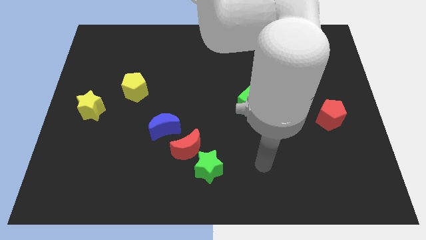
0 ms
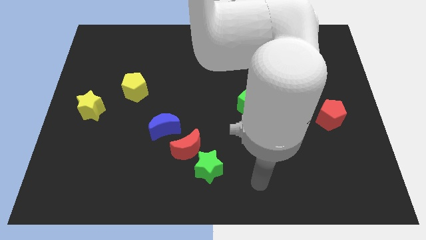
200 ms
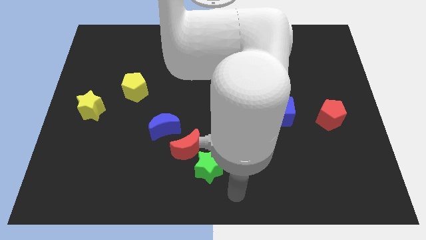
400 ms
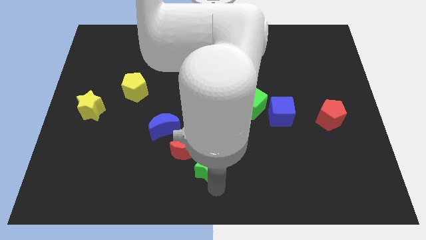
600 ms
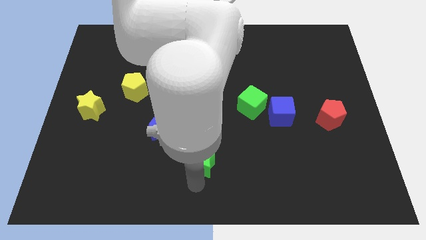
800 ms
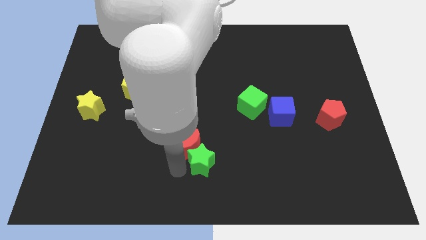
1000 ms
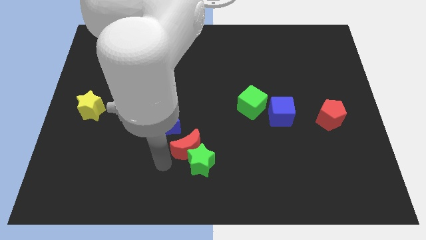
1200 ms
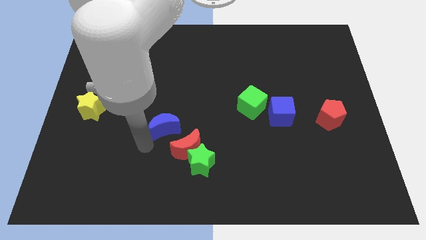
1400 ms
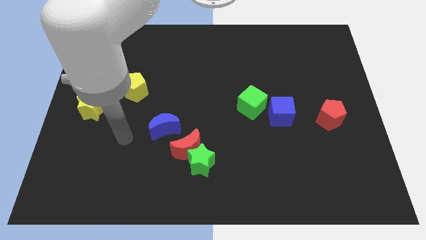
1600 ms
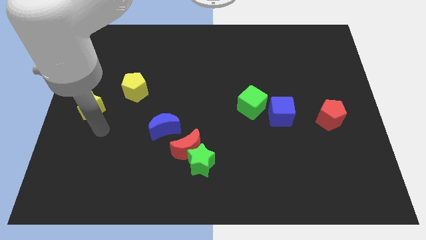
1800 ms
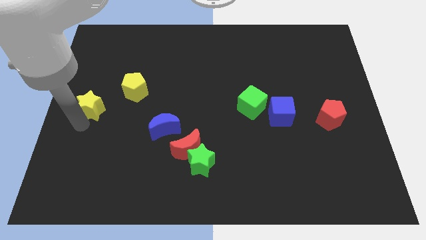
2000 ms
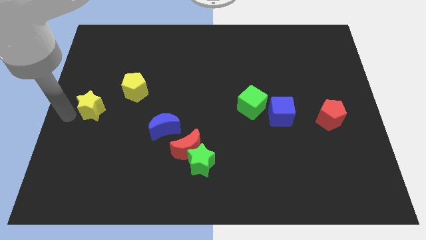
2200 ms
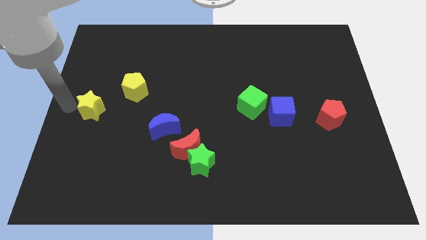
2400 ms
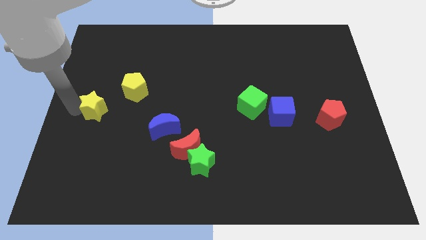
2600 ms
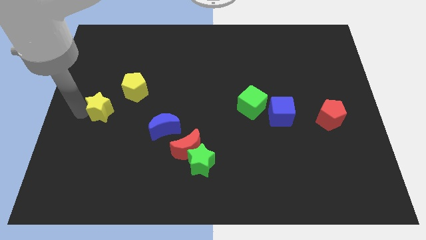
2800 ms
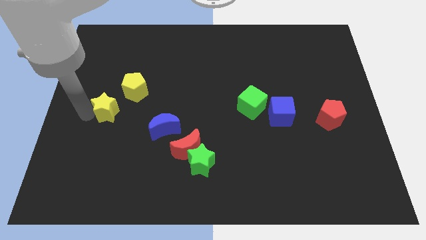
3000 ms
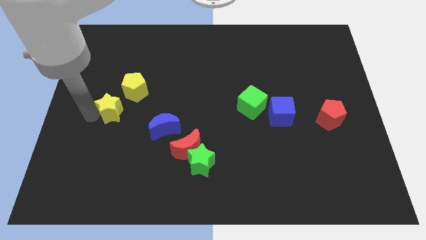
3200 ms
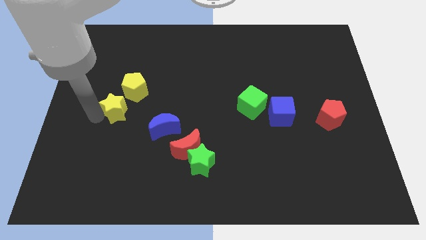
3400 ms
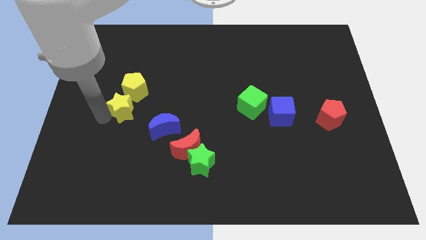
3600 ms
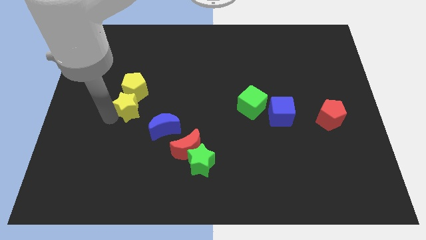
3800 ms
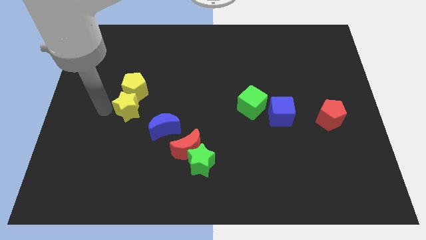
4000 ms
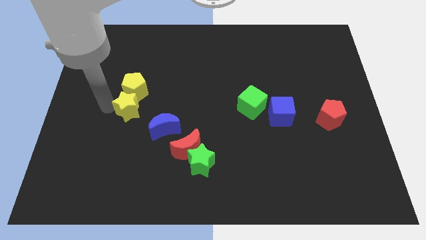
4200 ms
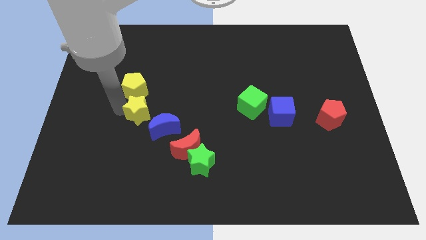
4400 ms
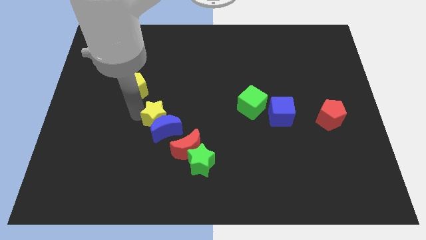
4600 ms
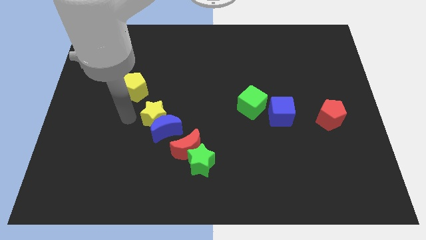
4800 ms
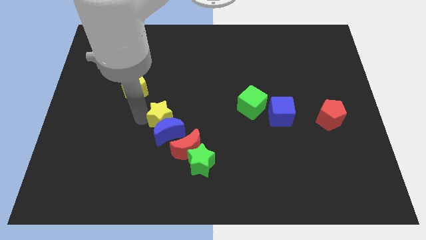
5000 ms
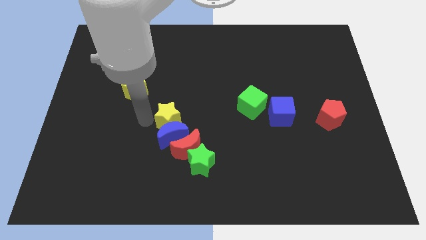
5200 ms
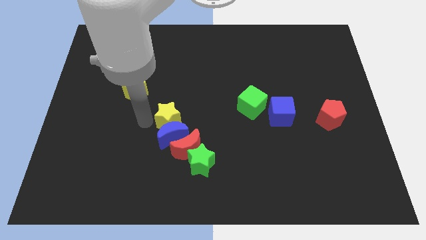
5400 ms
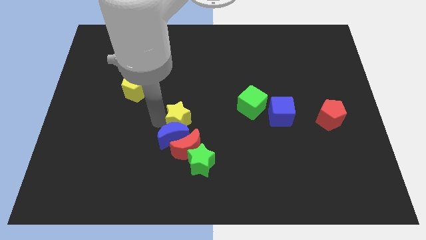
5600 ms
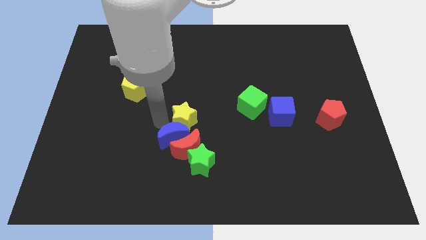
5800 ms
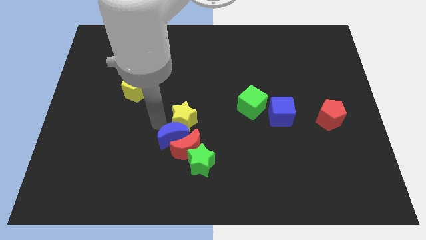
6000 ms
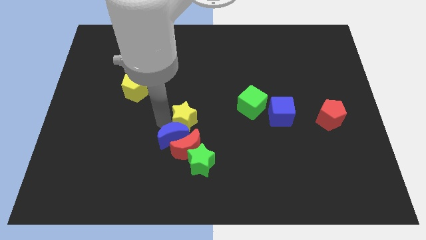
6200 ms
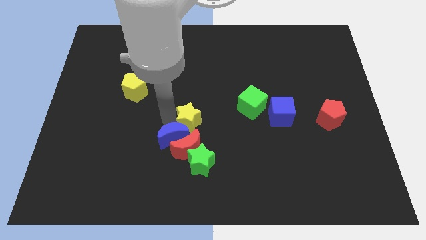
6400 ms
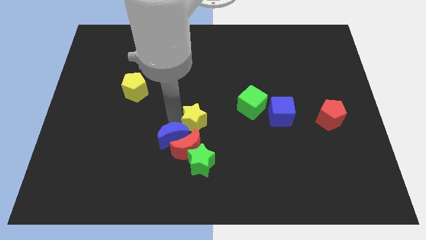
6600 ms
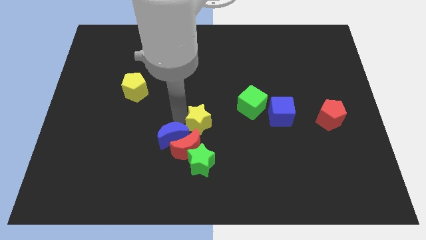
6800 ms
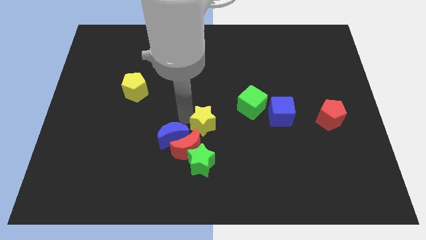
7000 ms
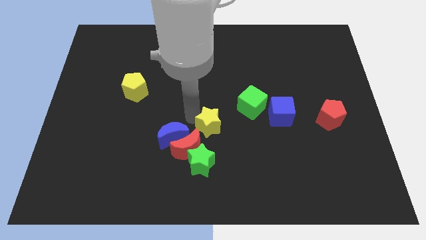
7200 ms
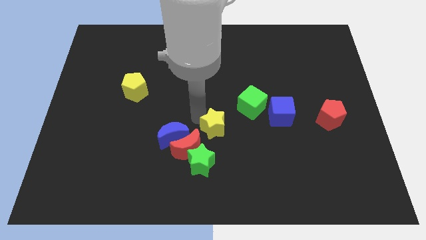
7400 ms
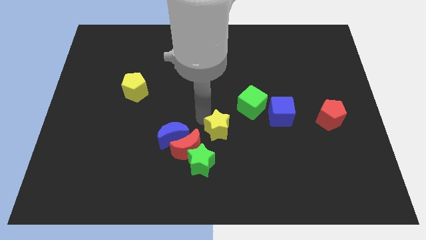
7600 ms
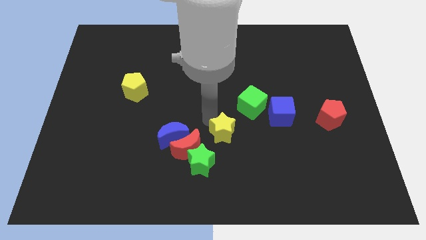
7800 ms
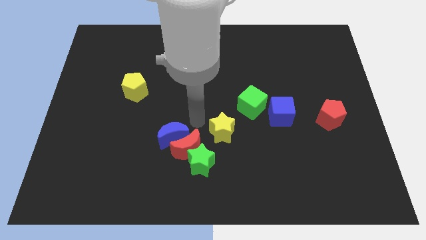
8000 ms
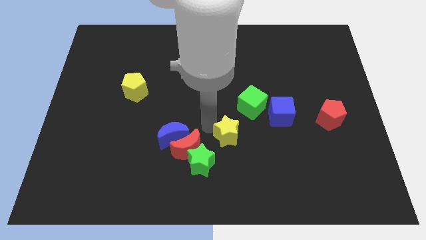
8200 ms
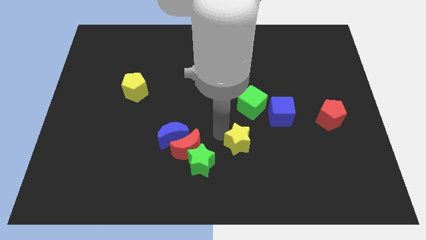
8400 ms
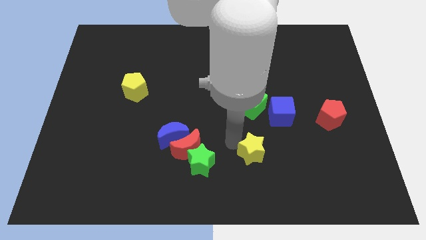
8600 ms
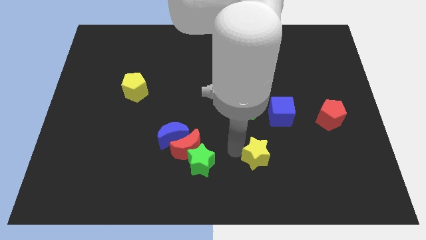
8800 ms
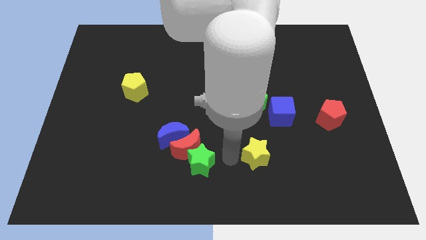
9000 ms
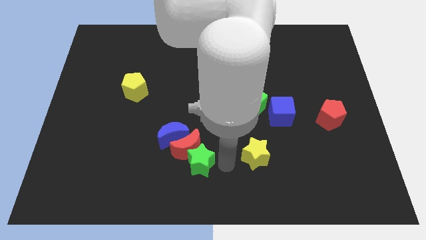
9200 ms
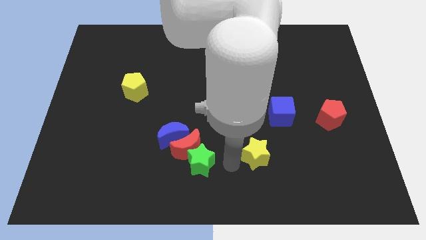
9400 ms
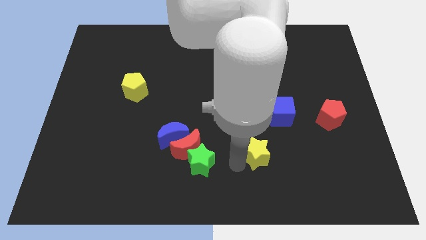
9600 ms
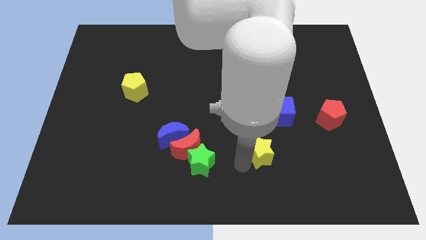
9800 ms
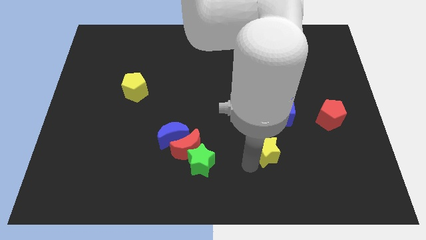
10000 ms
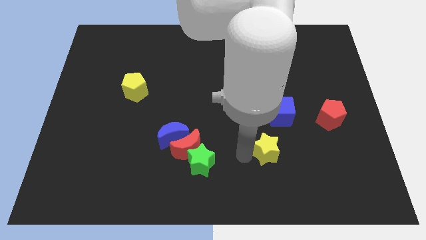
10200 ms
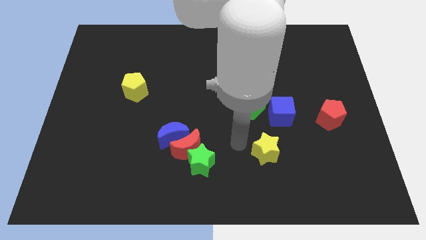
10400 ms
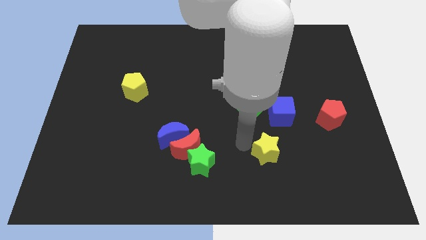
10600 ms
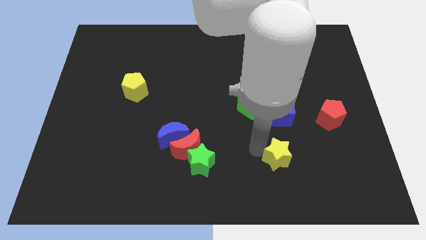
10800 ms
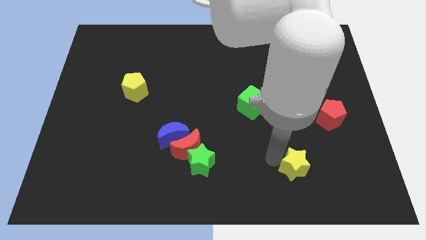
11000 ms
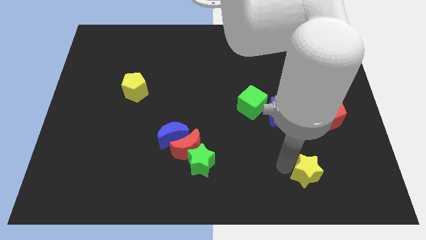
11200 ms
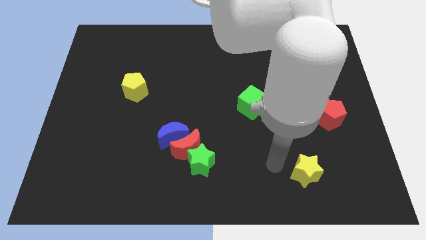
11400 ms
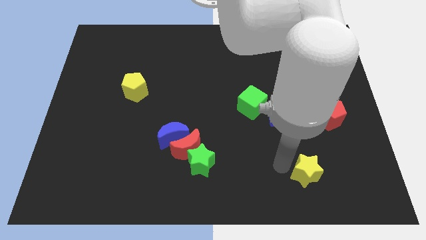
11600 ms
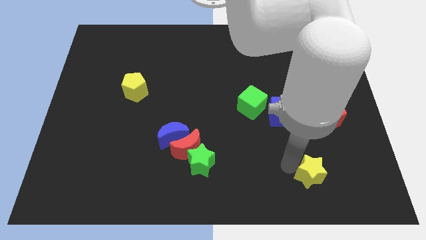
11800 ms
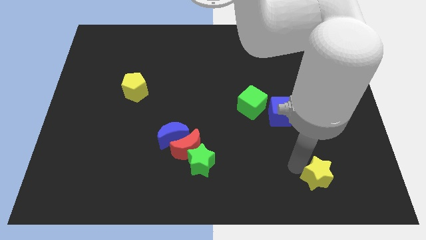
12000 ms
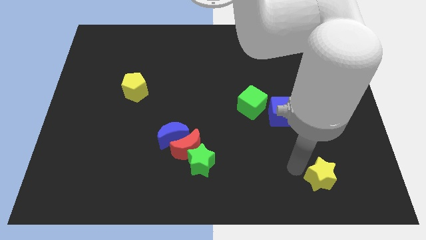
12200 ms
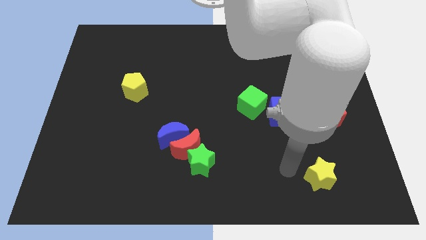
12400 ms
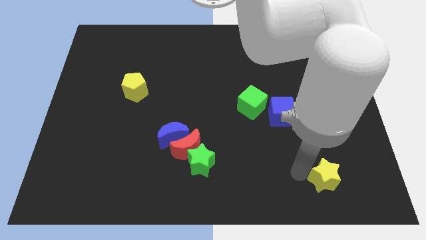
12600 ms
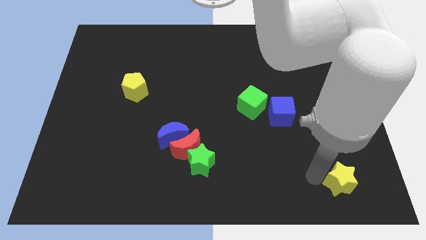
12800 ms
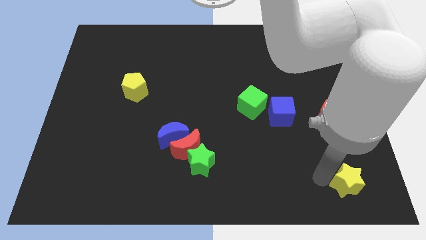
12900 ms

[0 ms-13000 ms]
slide the yellow star to the lower right corner
